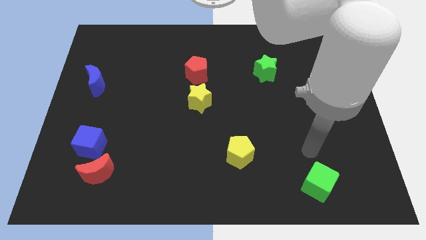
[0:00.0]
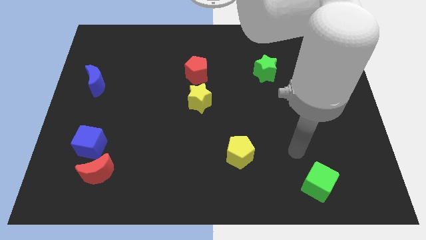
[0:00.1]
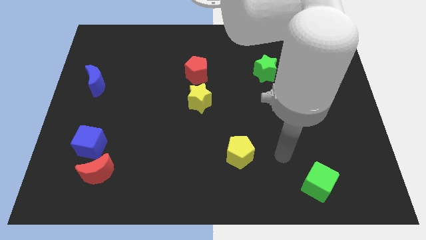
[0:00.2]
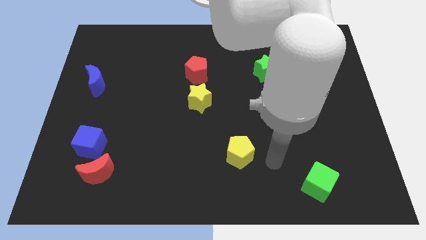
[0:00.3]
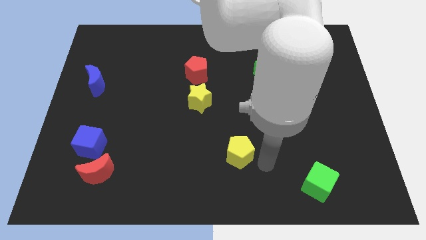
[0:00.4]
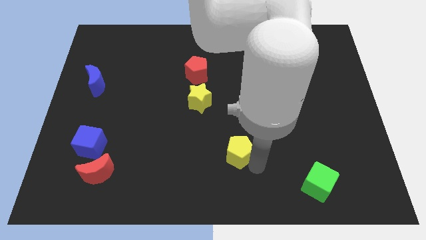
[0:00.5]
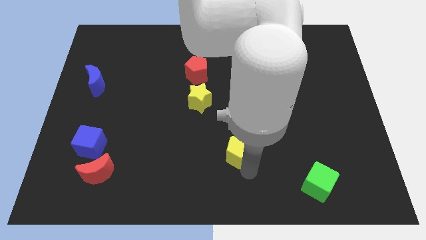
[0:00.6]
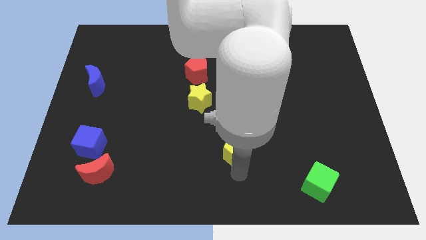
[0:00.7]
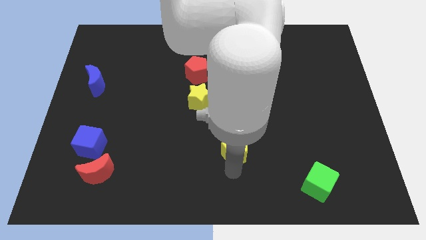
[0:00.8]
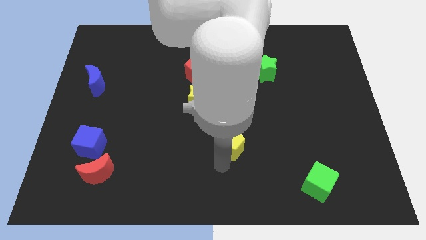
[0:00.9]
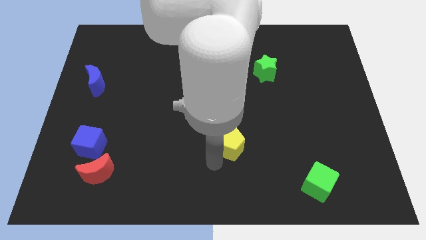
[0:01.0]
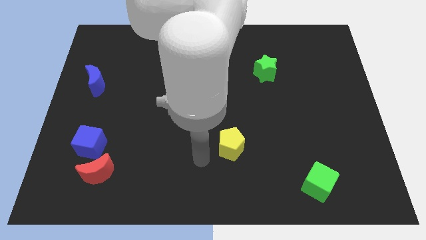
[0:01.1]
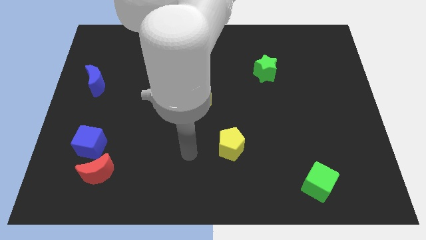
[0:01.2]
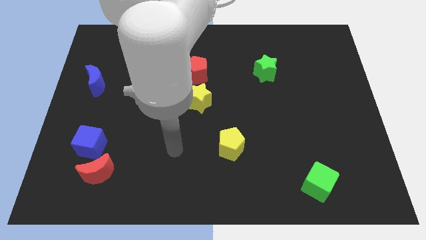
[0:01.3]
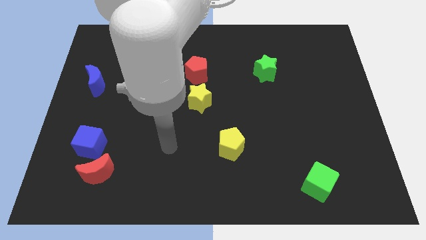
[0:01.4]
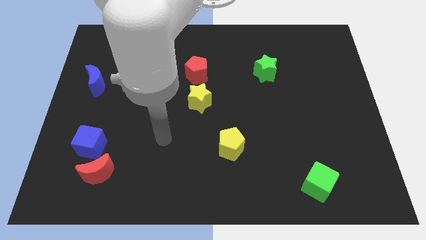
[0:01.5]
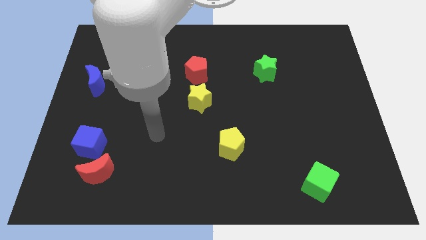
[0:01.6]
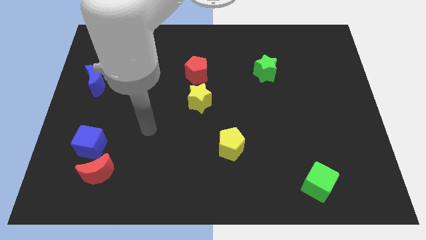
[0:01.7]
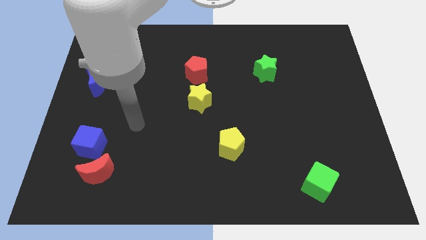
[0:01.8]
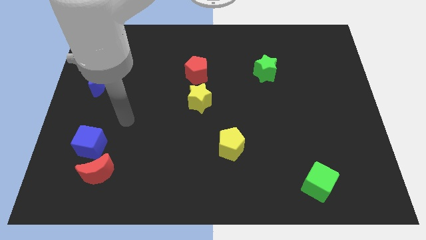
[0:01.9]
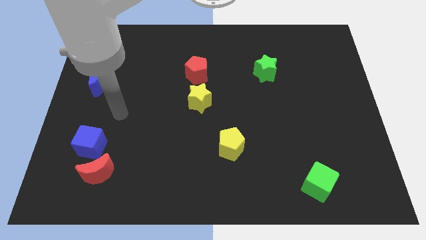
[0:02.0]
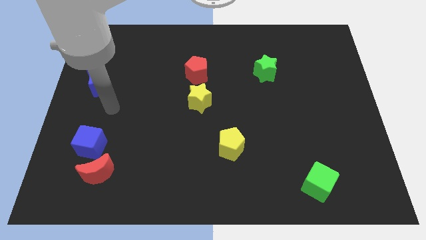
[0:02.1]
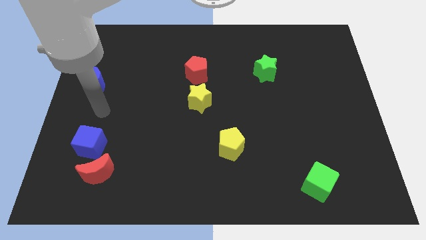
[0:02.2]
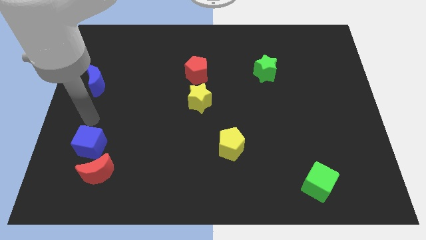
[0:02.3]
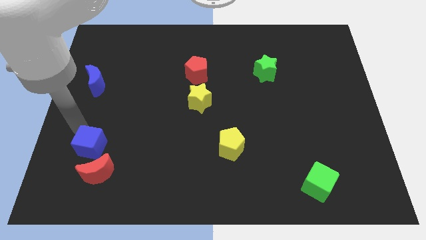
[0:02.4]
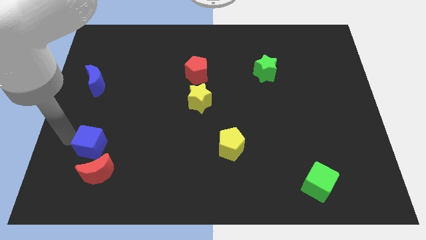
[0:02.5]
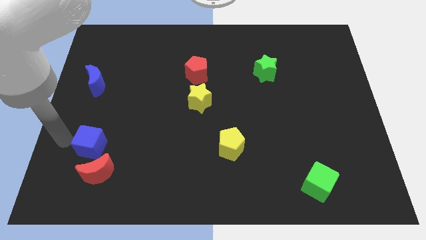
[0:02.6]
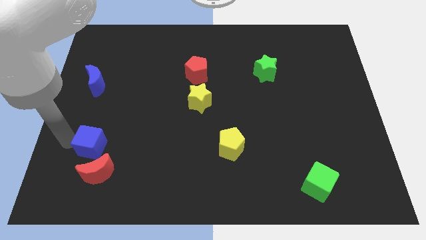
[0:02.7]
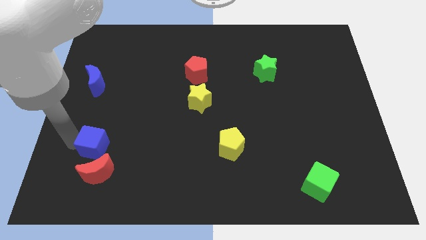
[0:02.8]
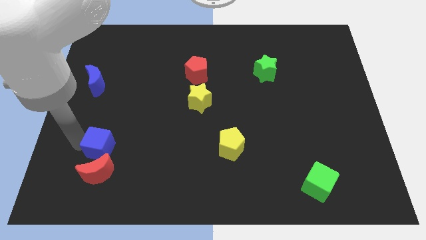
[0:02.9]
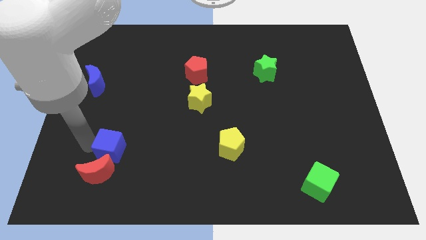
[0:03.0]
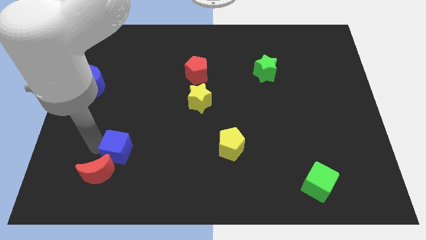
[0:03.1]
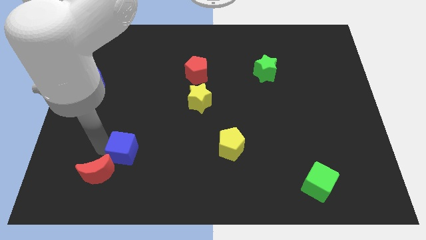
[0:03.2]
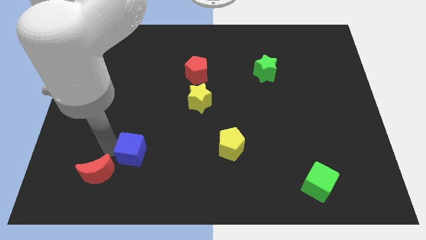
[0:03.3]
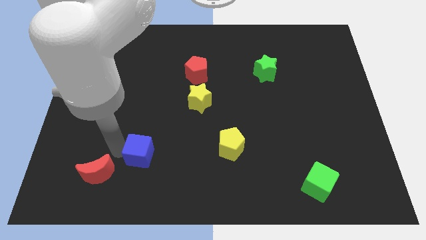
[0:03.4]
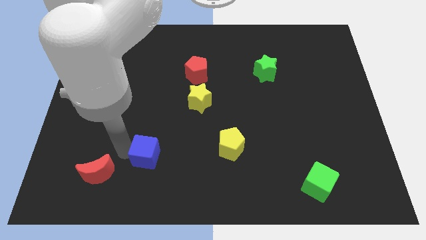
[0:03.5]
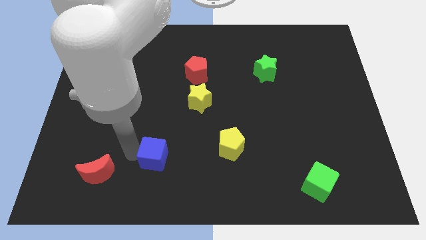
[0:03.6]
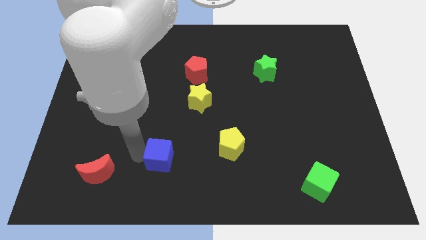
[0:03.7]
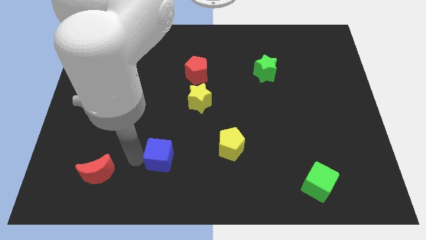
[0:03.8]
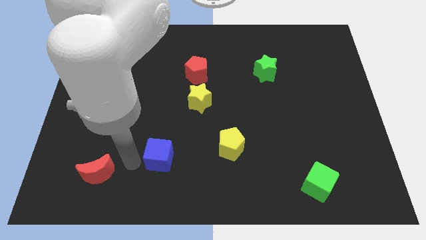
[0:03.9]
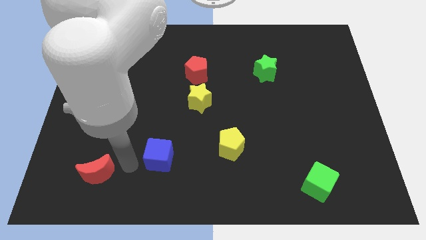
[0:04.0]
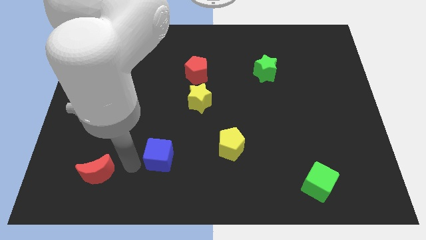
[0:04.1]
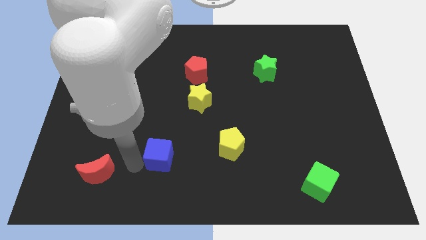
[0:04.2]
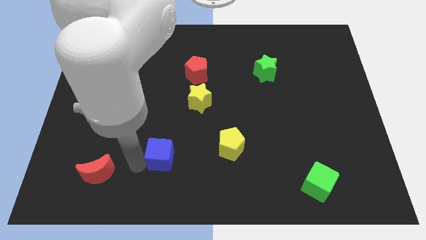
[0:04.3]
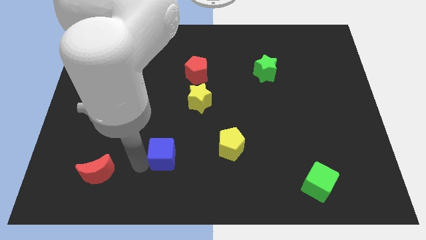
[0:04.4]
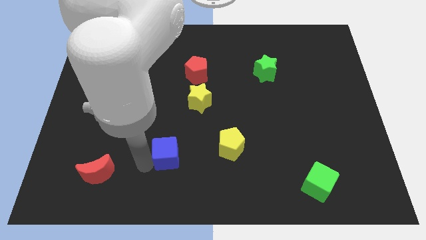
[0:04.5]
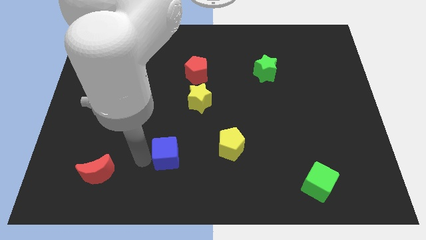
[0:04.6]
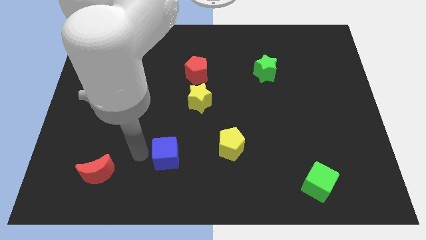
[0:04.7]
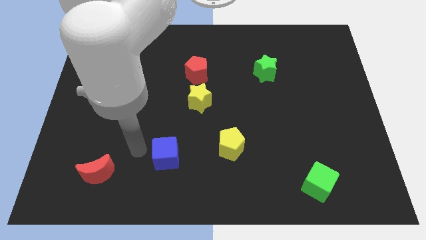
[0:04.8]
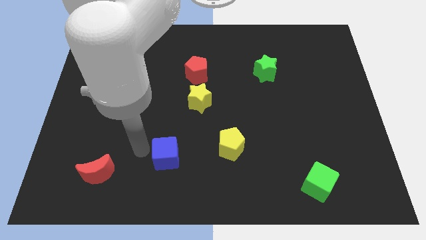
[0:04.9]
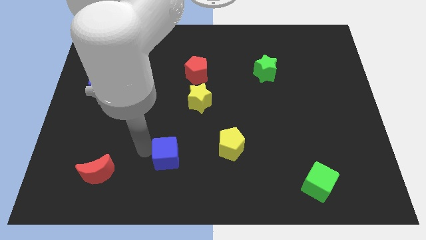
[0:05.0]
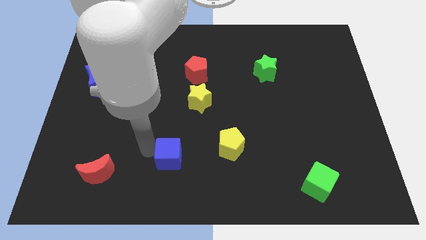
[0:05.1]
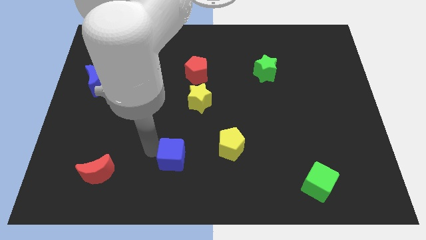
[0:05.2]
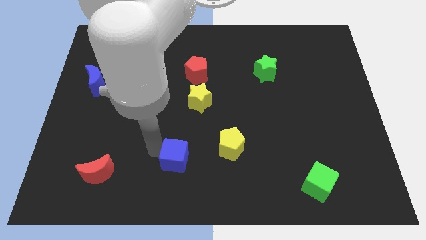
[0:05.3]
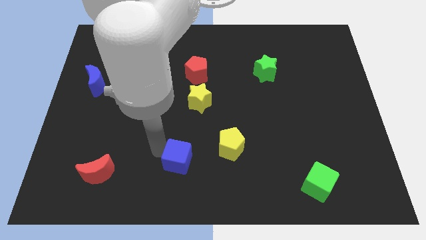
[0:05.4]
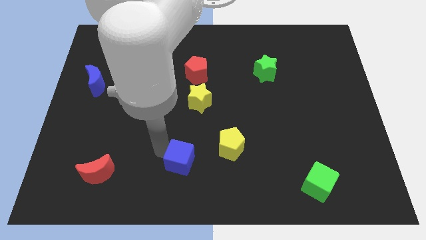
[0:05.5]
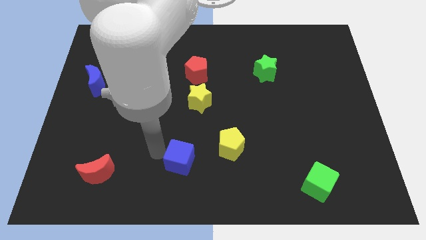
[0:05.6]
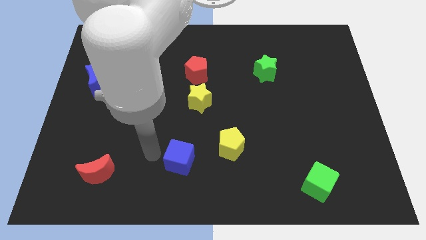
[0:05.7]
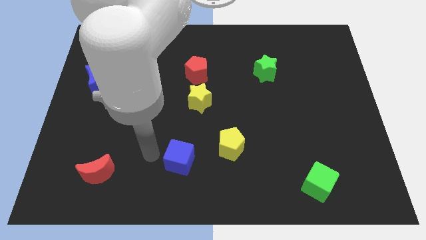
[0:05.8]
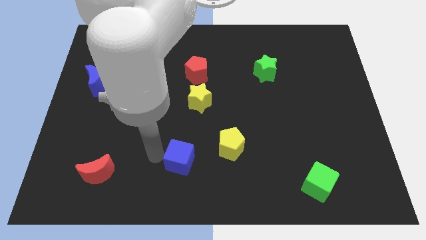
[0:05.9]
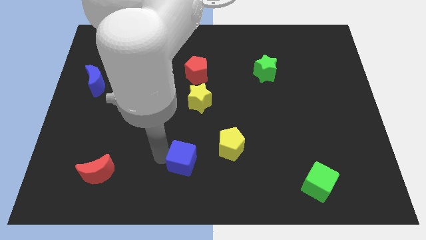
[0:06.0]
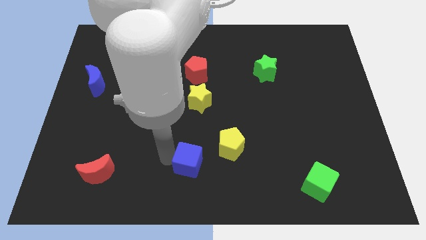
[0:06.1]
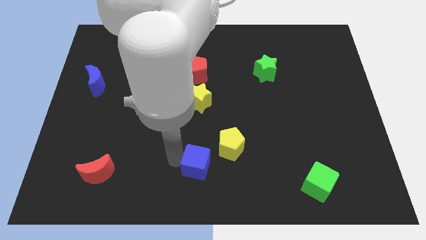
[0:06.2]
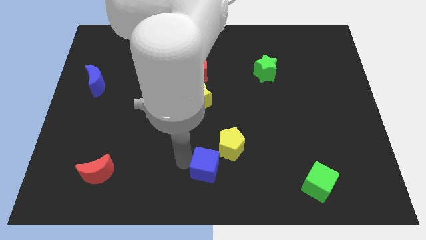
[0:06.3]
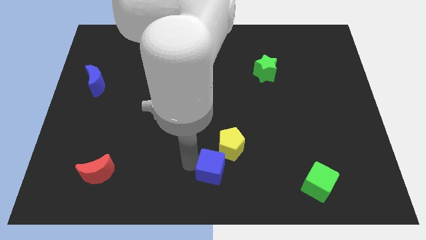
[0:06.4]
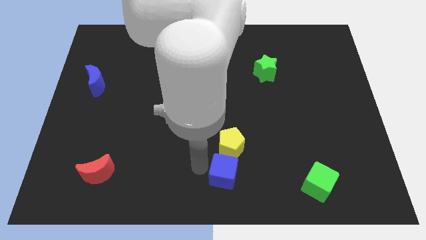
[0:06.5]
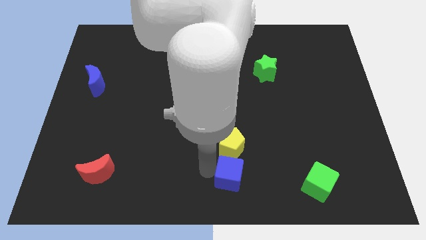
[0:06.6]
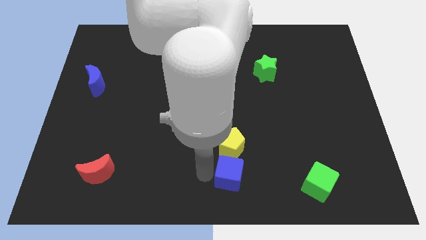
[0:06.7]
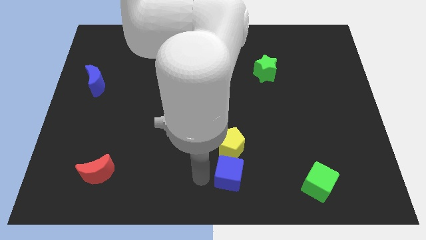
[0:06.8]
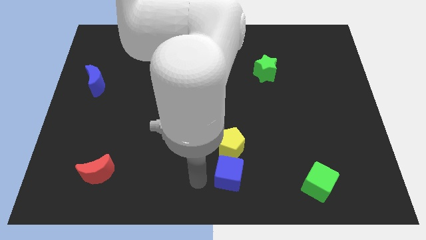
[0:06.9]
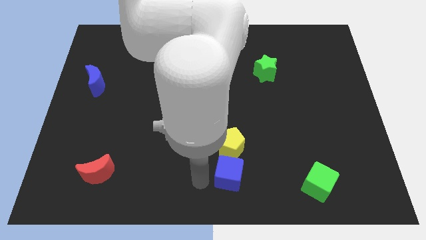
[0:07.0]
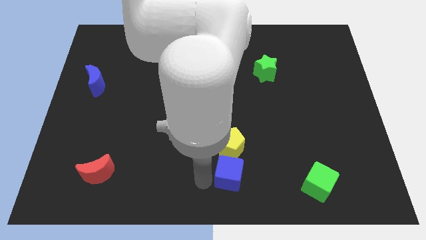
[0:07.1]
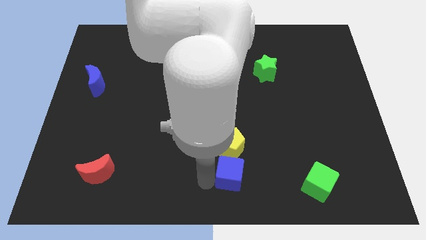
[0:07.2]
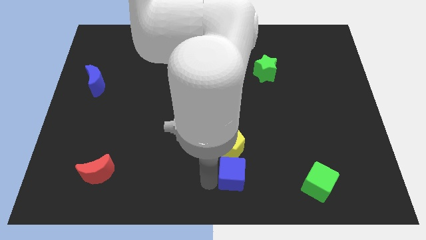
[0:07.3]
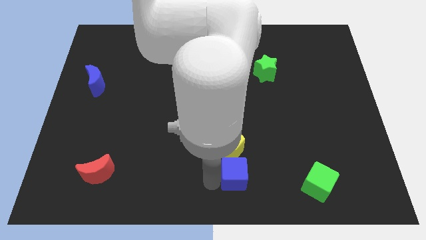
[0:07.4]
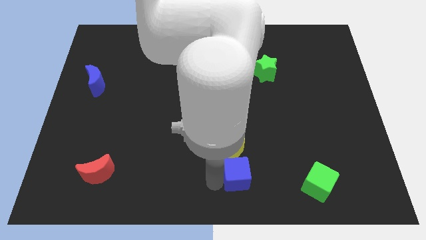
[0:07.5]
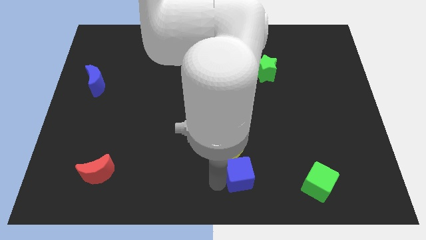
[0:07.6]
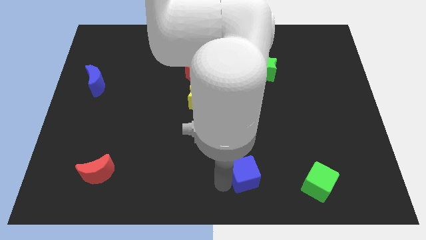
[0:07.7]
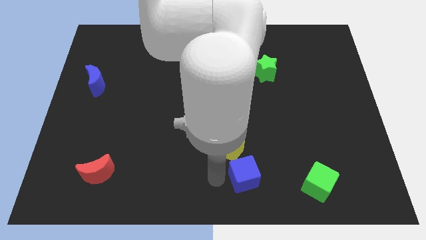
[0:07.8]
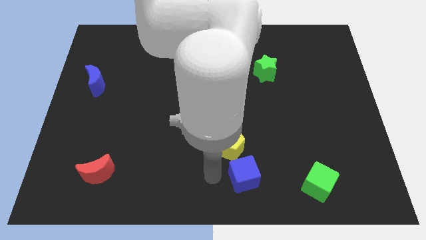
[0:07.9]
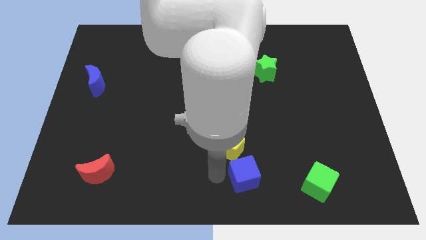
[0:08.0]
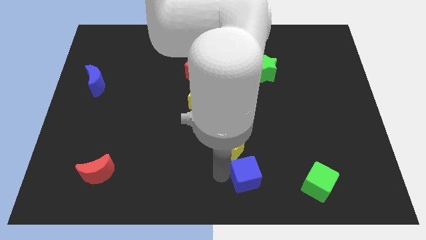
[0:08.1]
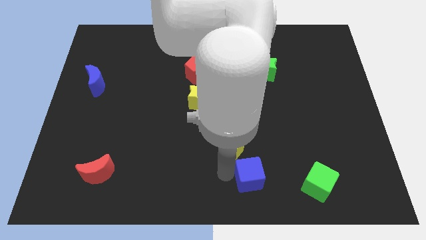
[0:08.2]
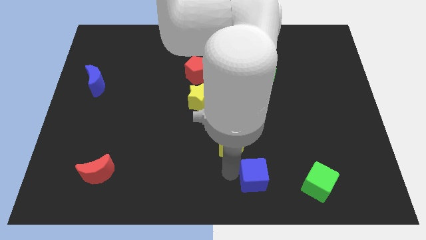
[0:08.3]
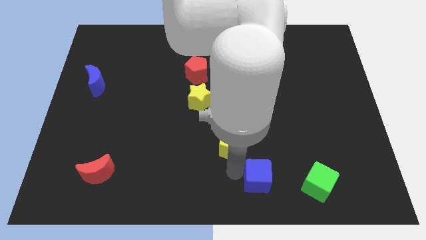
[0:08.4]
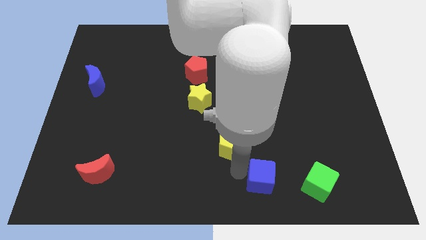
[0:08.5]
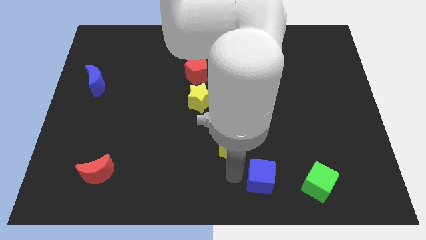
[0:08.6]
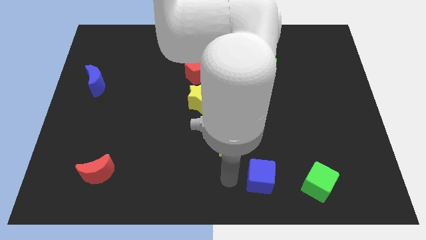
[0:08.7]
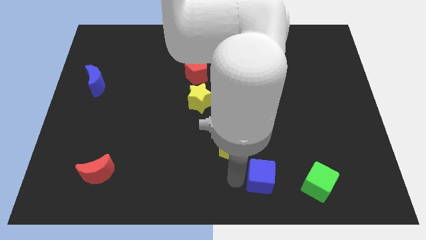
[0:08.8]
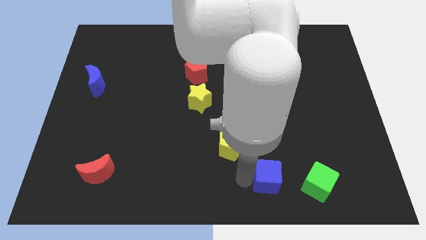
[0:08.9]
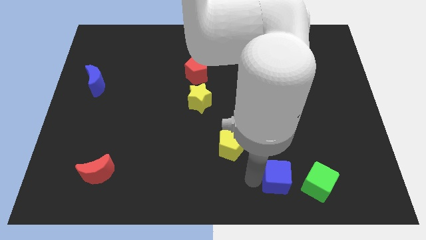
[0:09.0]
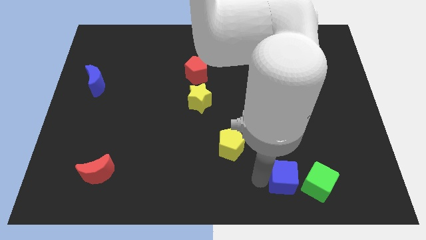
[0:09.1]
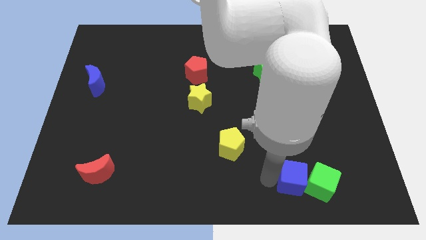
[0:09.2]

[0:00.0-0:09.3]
push the blue cube to the green cube
